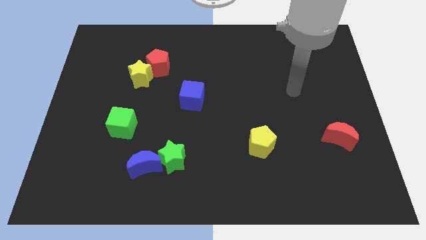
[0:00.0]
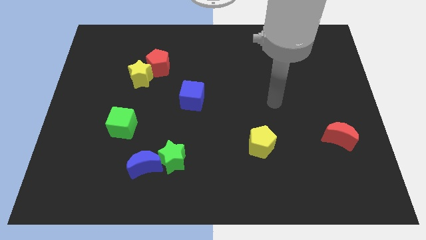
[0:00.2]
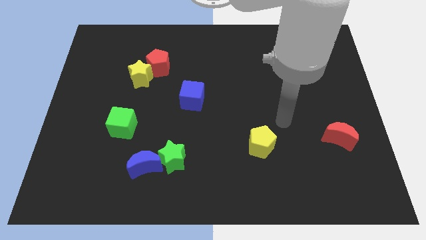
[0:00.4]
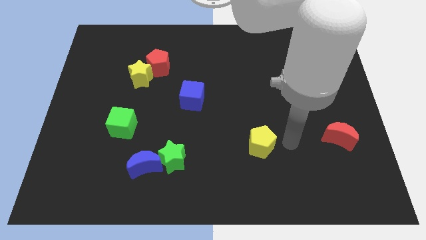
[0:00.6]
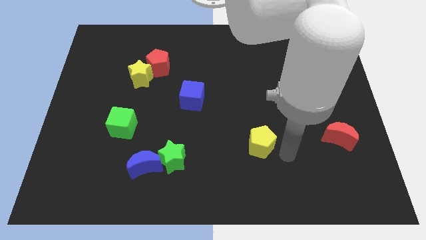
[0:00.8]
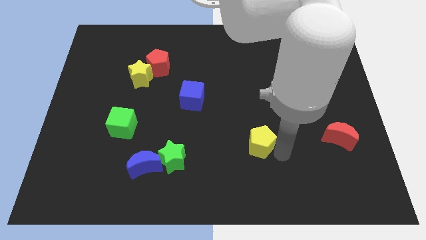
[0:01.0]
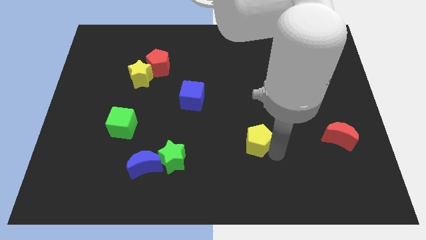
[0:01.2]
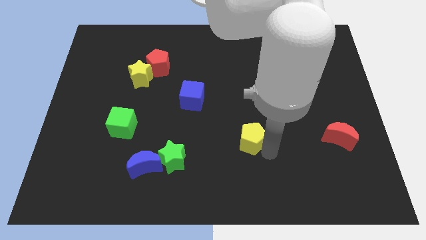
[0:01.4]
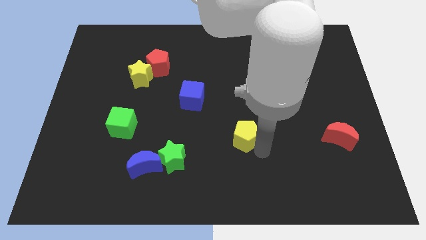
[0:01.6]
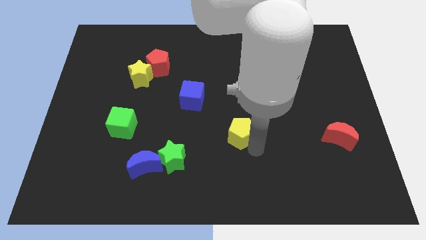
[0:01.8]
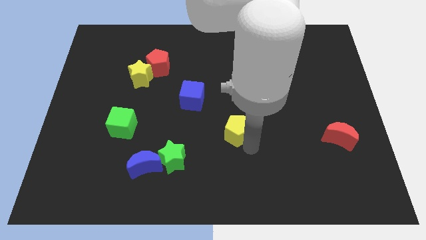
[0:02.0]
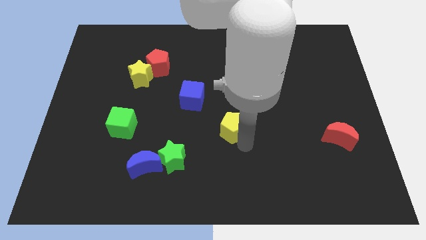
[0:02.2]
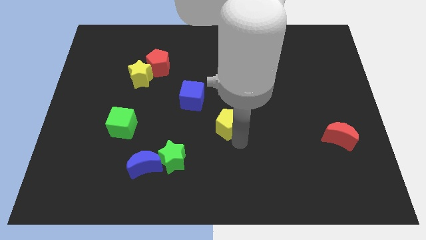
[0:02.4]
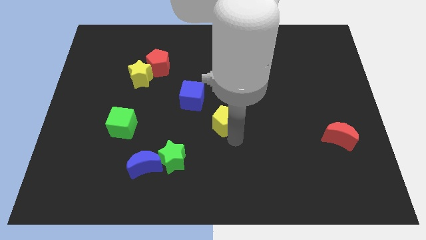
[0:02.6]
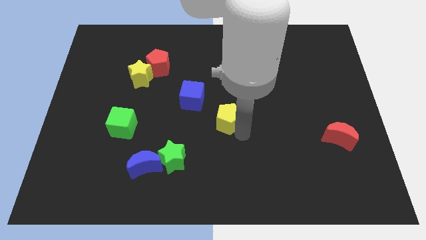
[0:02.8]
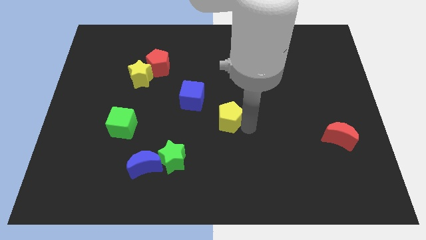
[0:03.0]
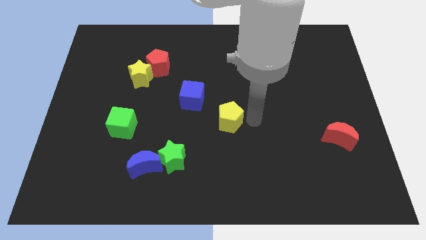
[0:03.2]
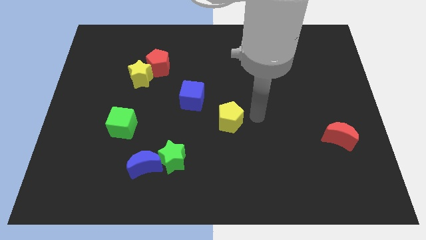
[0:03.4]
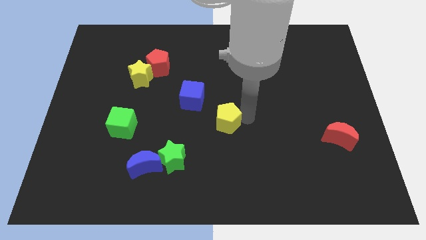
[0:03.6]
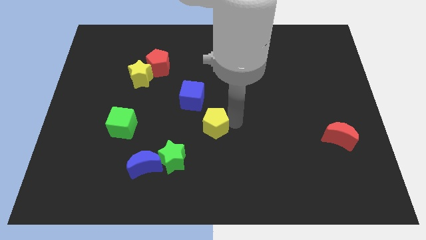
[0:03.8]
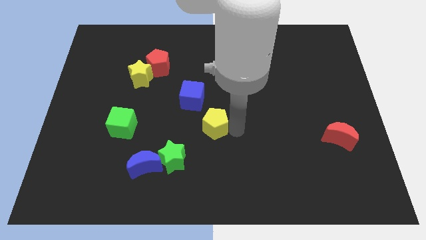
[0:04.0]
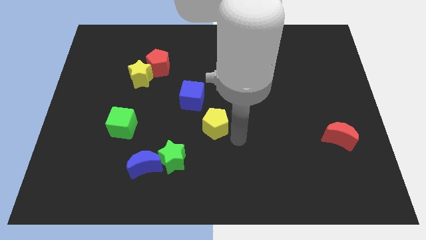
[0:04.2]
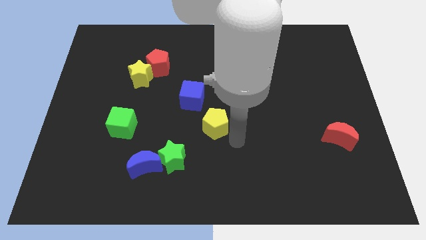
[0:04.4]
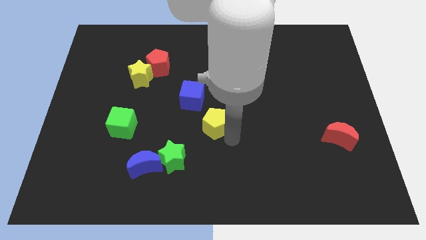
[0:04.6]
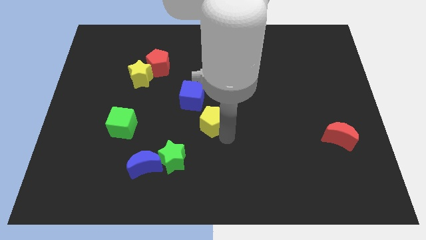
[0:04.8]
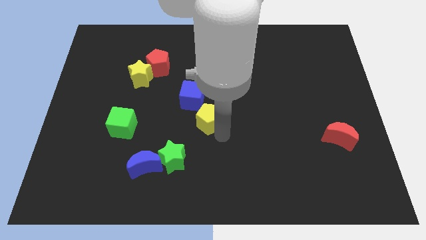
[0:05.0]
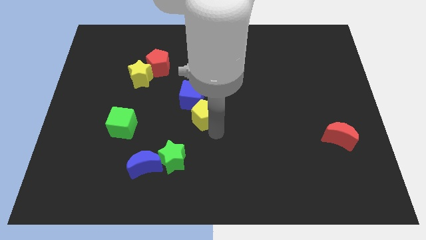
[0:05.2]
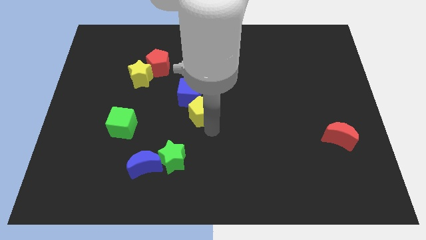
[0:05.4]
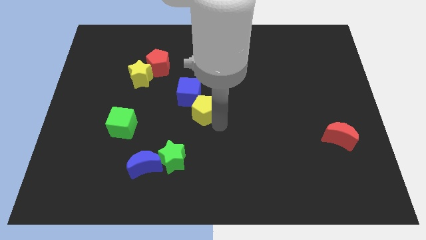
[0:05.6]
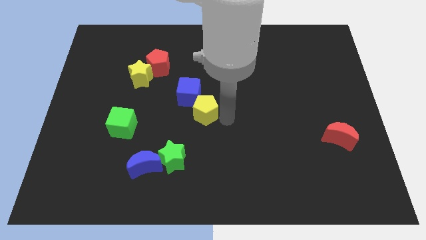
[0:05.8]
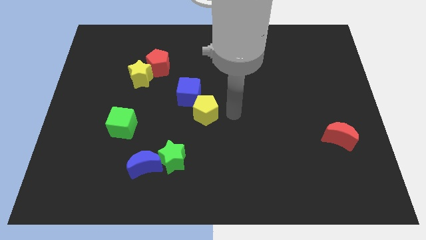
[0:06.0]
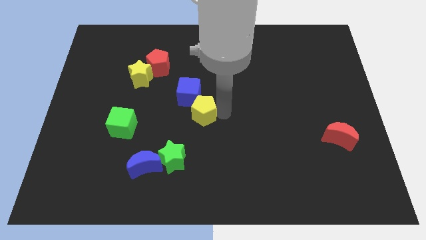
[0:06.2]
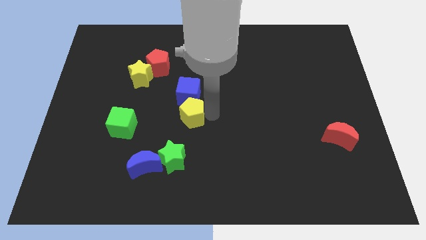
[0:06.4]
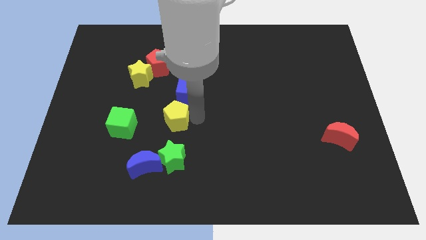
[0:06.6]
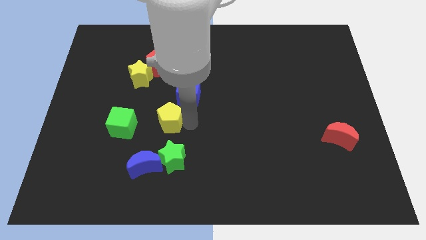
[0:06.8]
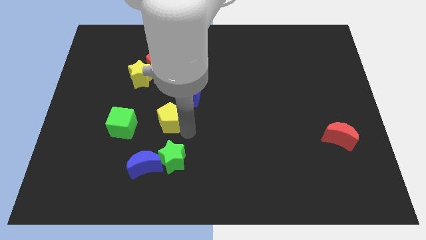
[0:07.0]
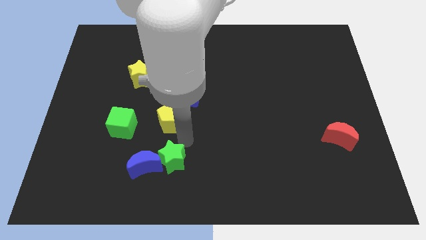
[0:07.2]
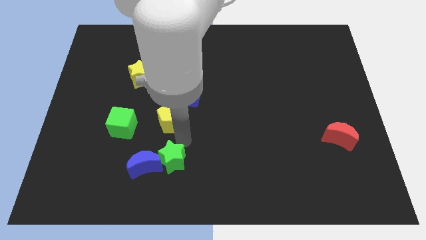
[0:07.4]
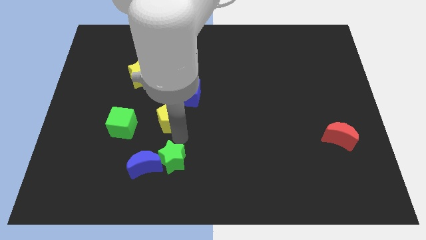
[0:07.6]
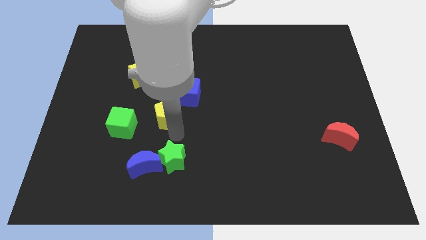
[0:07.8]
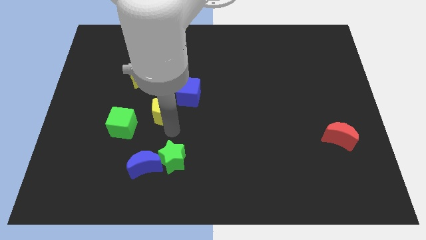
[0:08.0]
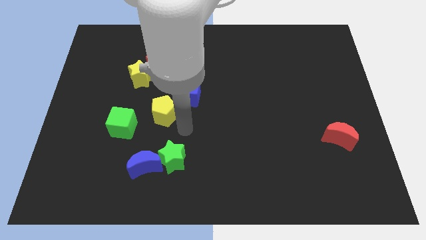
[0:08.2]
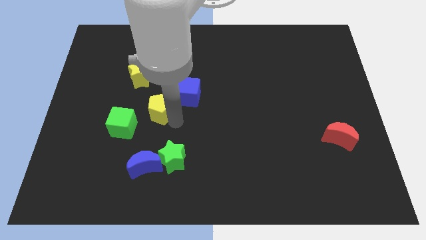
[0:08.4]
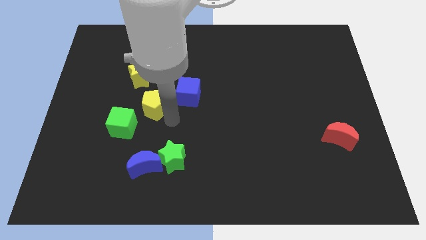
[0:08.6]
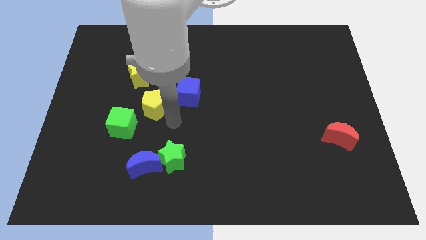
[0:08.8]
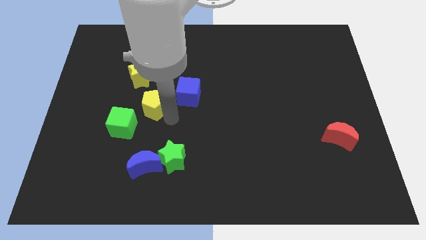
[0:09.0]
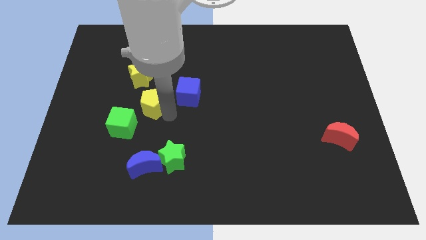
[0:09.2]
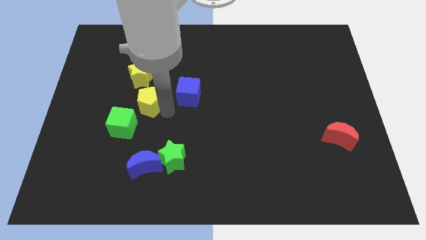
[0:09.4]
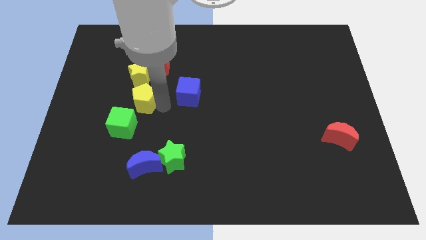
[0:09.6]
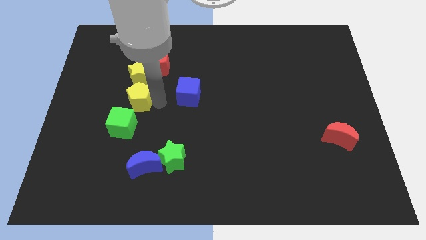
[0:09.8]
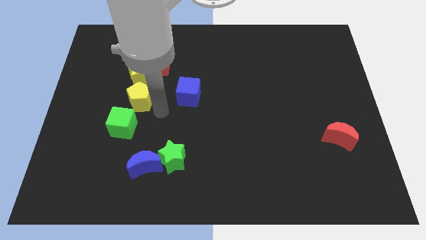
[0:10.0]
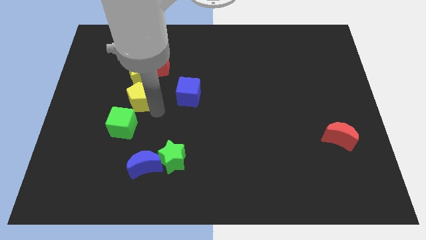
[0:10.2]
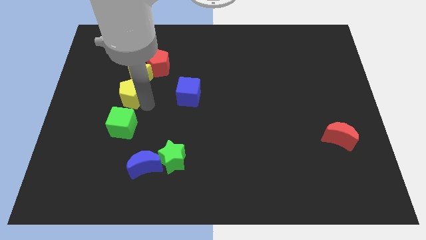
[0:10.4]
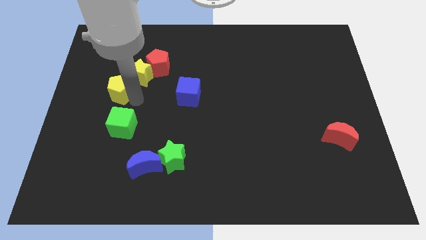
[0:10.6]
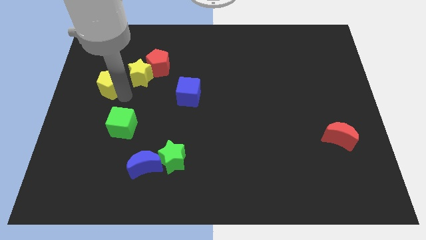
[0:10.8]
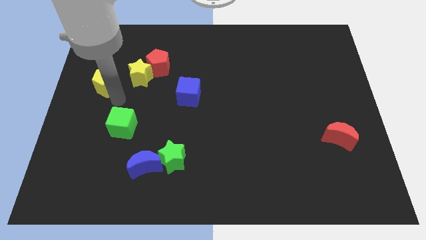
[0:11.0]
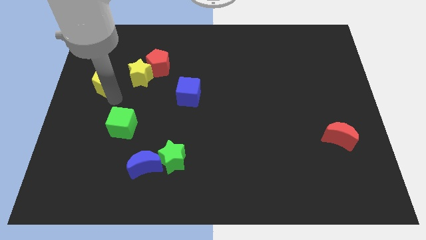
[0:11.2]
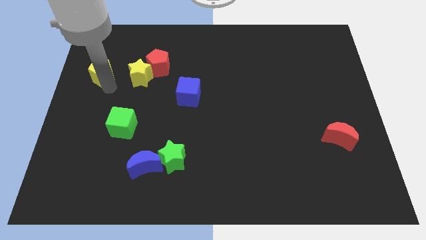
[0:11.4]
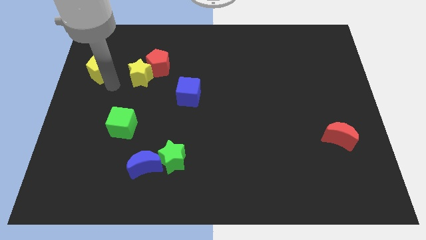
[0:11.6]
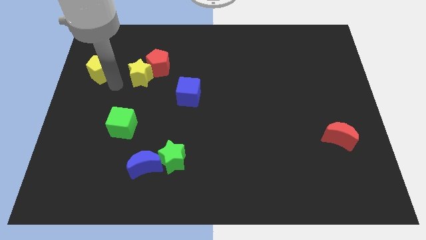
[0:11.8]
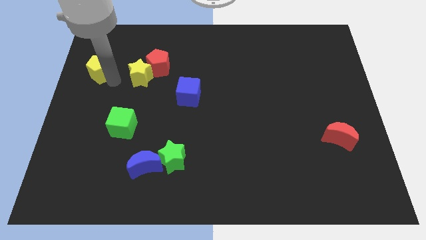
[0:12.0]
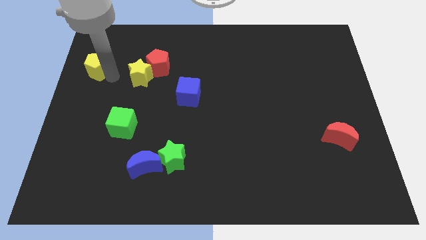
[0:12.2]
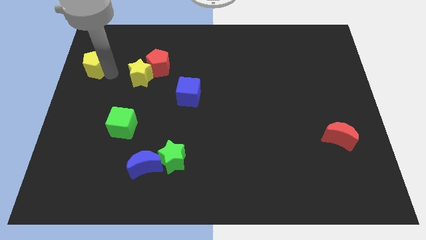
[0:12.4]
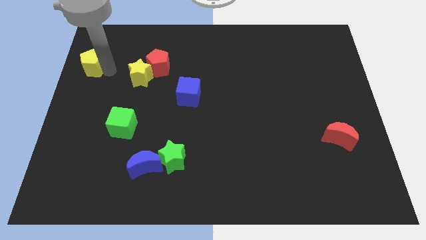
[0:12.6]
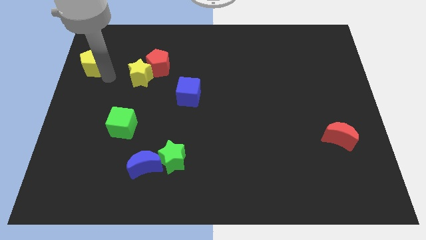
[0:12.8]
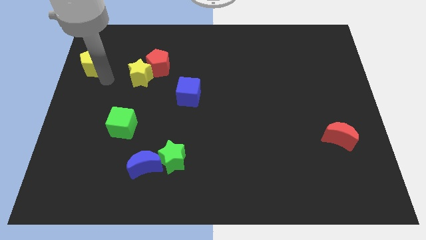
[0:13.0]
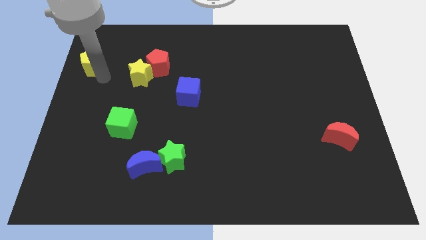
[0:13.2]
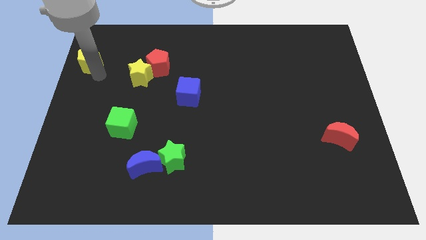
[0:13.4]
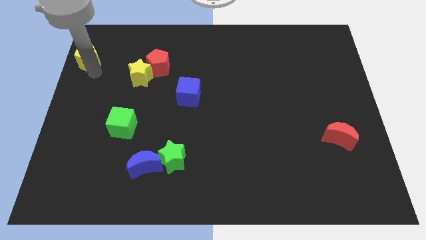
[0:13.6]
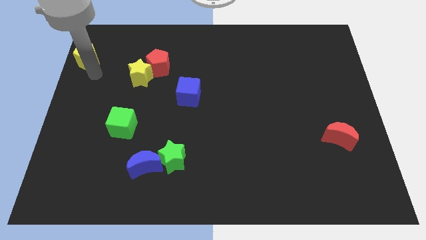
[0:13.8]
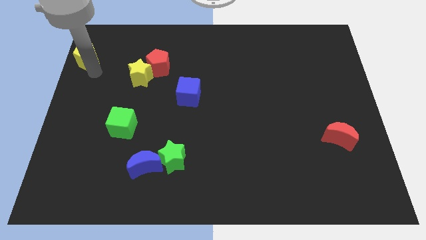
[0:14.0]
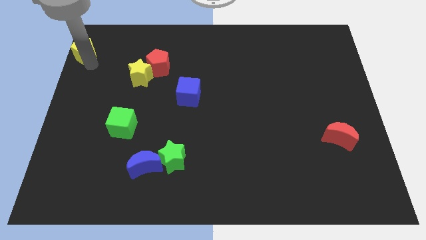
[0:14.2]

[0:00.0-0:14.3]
put the yellow pentagon to the top left corner
